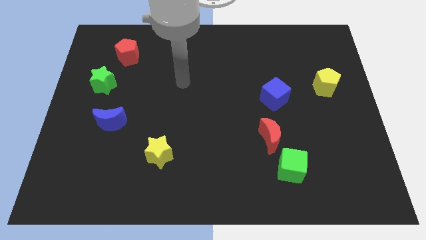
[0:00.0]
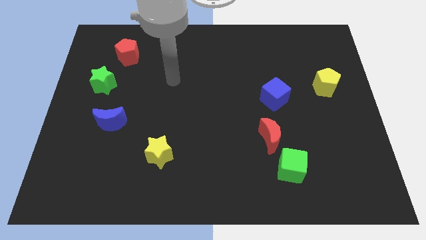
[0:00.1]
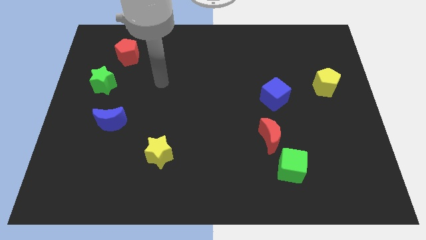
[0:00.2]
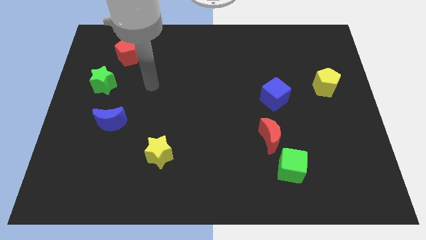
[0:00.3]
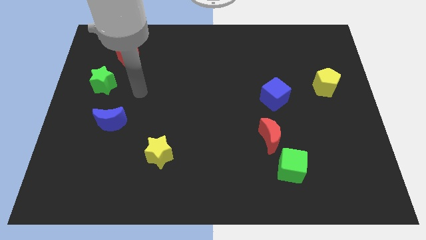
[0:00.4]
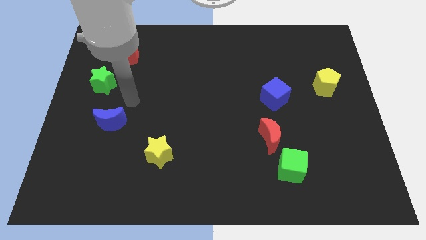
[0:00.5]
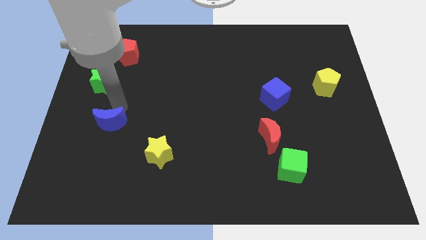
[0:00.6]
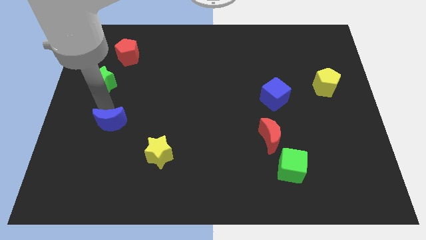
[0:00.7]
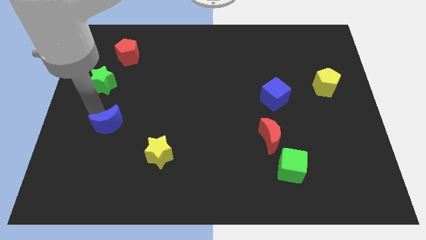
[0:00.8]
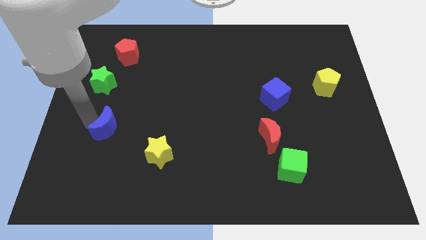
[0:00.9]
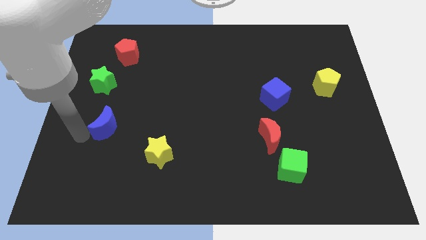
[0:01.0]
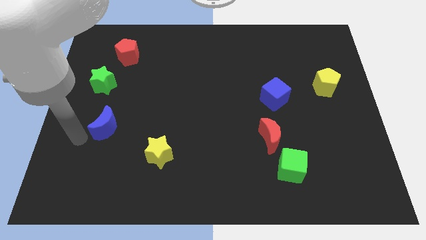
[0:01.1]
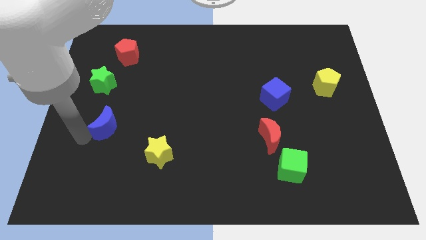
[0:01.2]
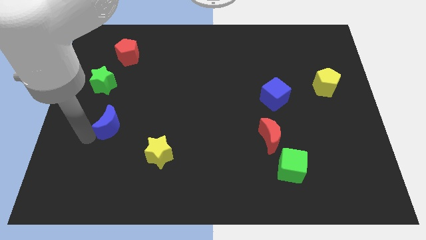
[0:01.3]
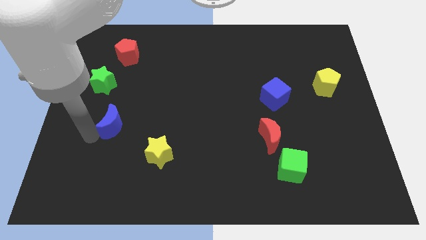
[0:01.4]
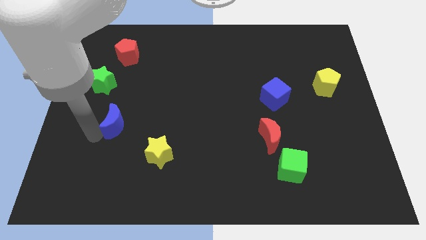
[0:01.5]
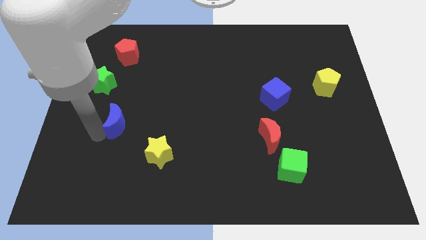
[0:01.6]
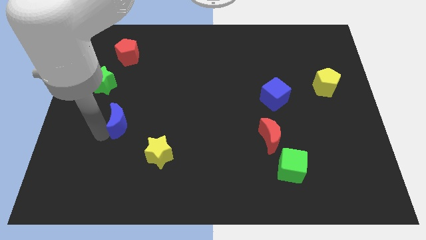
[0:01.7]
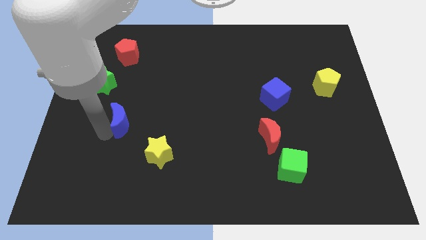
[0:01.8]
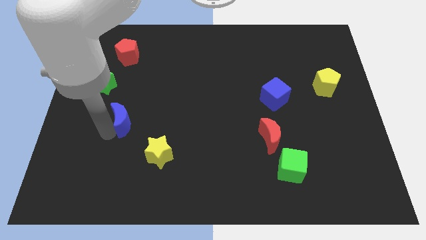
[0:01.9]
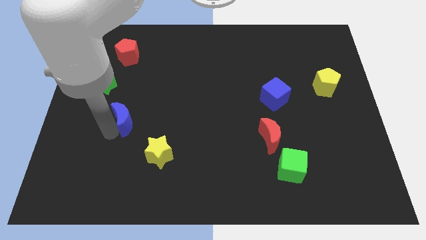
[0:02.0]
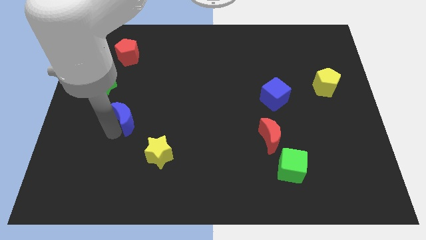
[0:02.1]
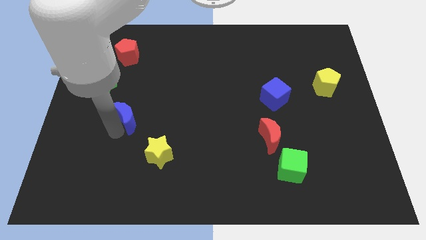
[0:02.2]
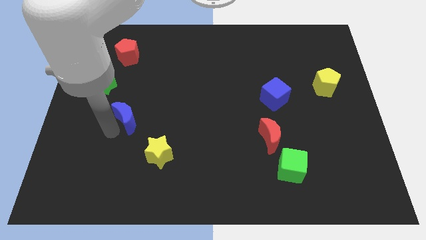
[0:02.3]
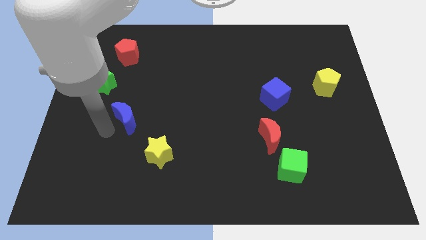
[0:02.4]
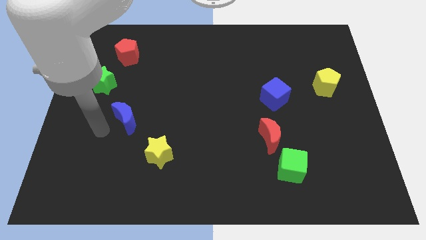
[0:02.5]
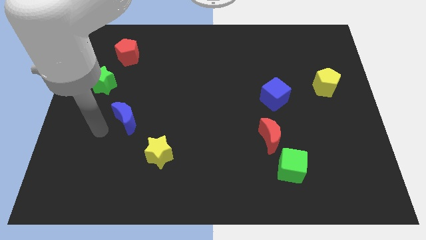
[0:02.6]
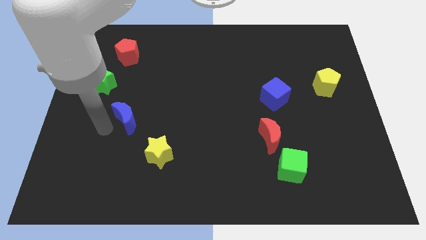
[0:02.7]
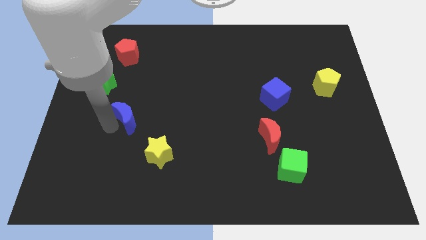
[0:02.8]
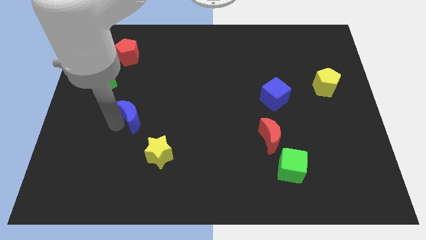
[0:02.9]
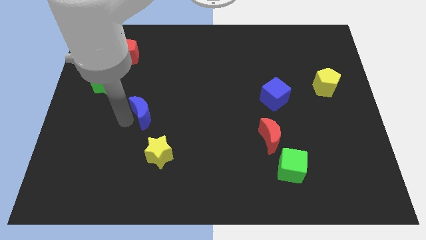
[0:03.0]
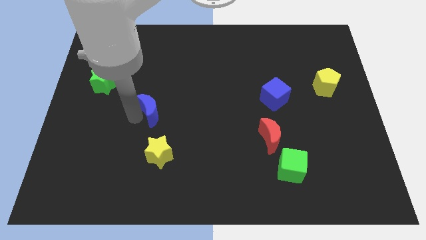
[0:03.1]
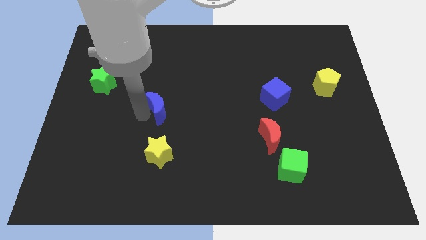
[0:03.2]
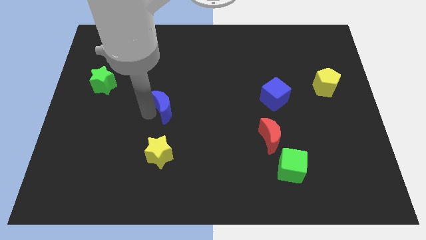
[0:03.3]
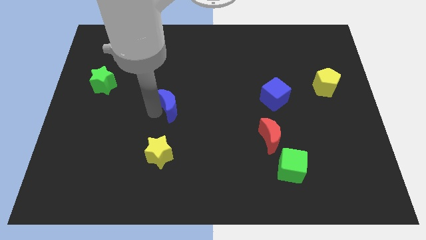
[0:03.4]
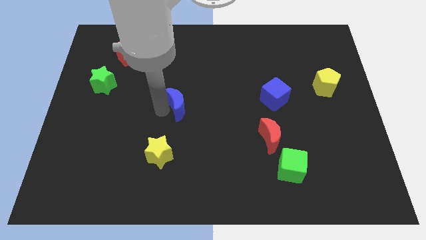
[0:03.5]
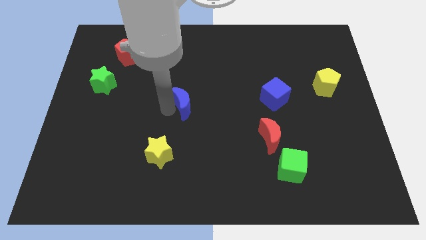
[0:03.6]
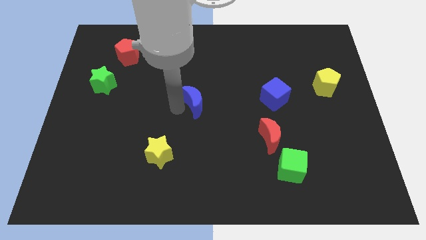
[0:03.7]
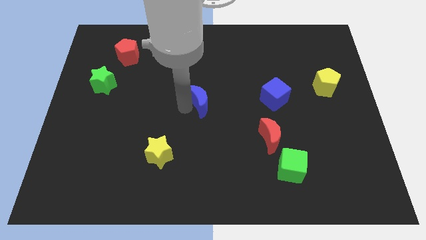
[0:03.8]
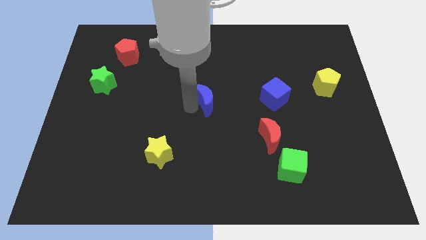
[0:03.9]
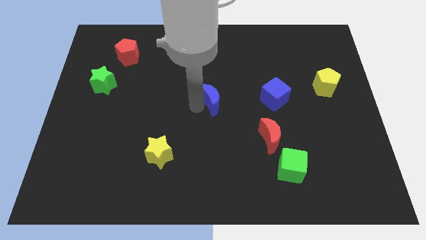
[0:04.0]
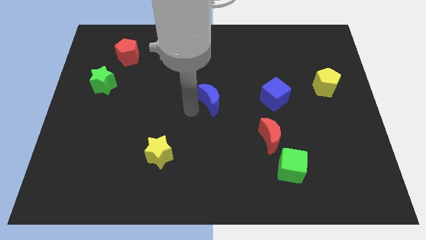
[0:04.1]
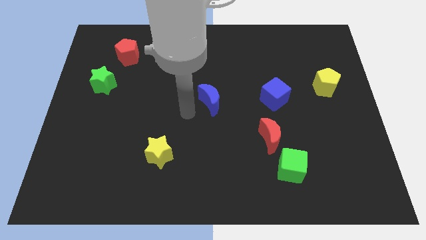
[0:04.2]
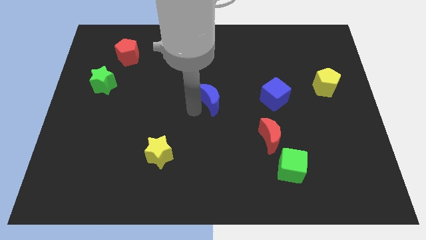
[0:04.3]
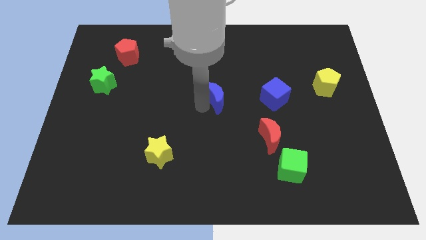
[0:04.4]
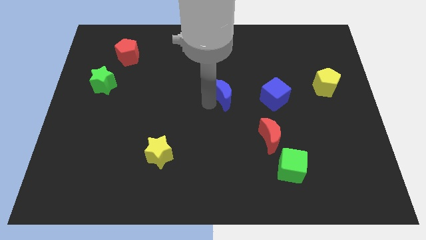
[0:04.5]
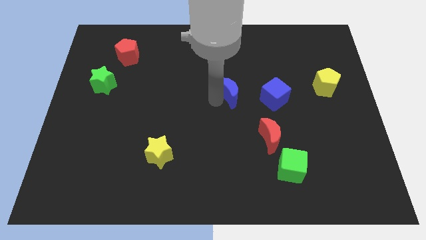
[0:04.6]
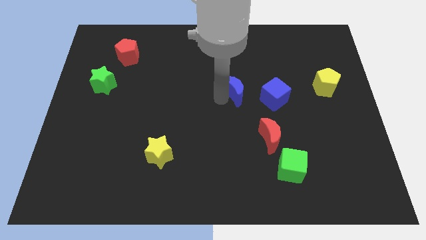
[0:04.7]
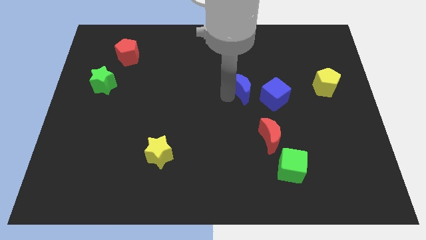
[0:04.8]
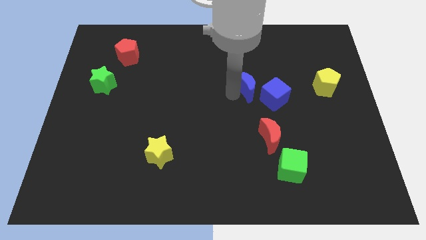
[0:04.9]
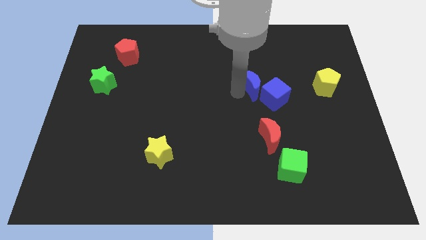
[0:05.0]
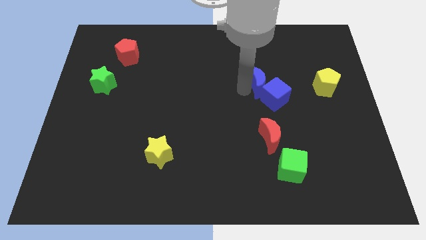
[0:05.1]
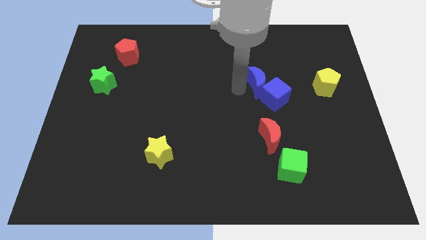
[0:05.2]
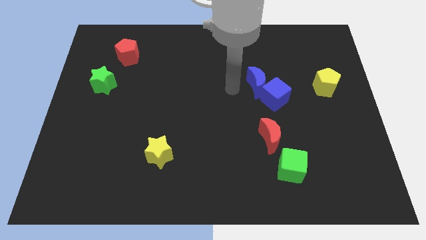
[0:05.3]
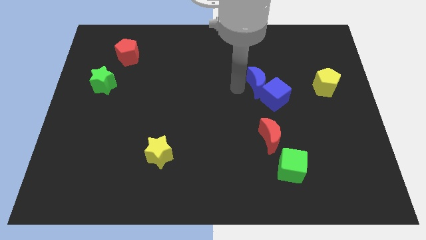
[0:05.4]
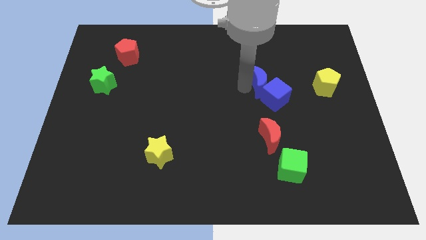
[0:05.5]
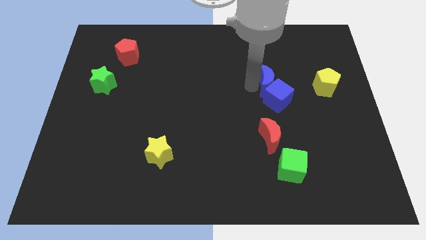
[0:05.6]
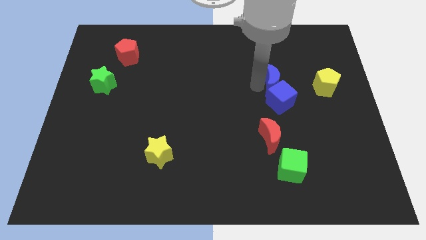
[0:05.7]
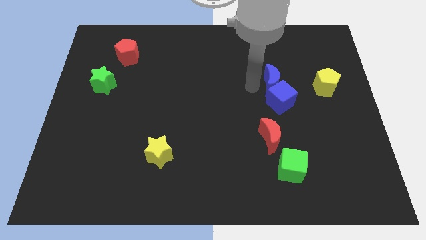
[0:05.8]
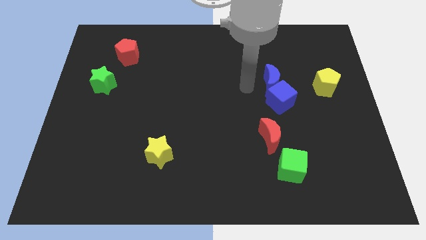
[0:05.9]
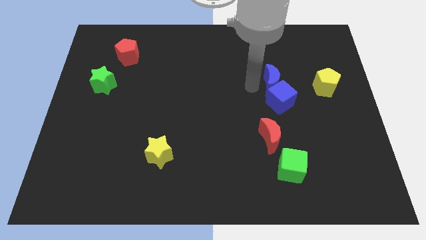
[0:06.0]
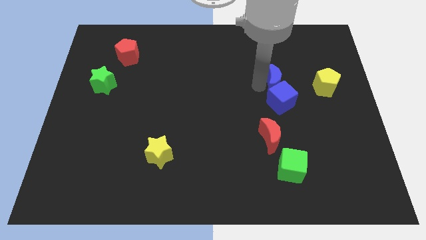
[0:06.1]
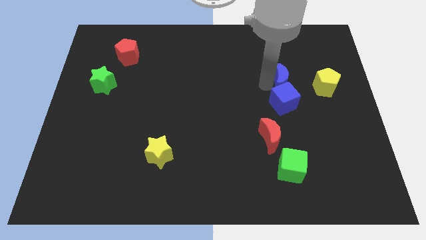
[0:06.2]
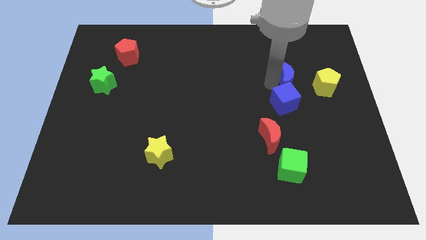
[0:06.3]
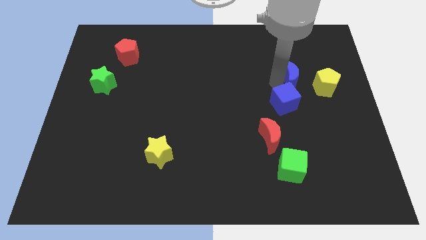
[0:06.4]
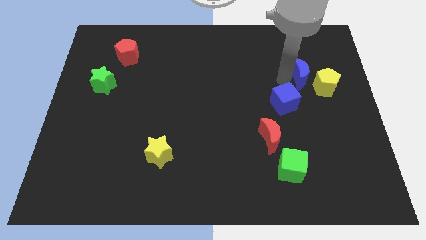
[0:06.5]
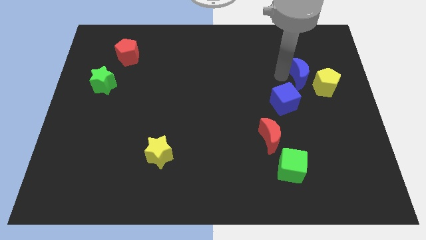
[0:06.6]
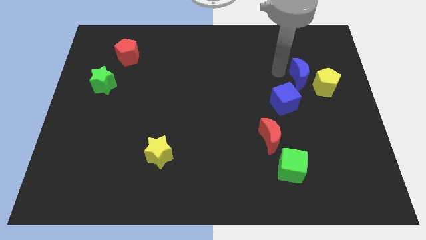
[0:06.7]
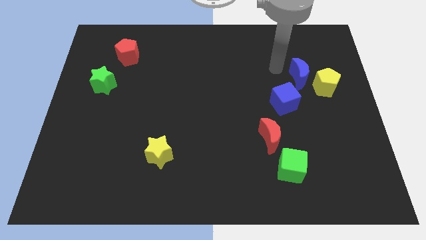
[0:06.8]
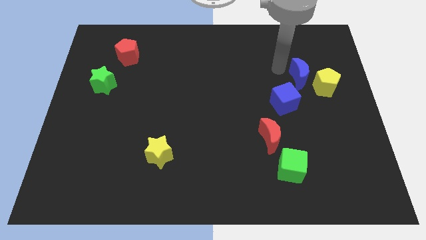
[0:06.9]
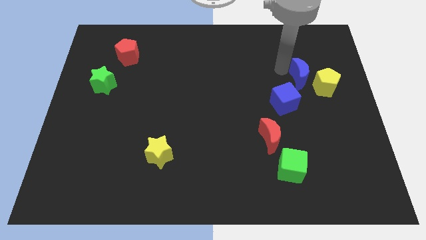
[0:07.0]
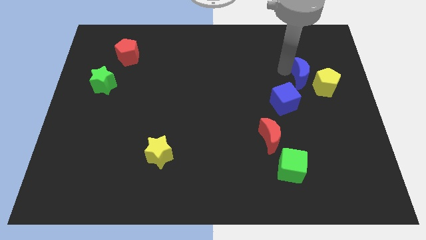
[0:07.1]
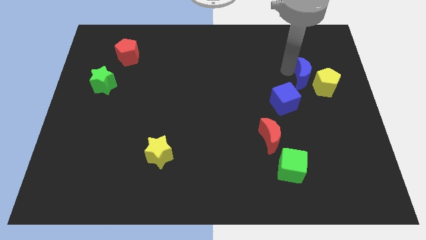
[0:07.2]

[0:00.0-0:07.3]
slide the blue moon next to the yellow pentagon

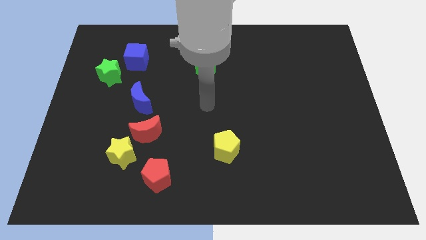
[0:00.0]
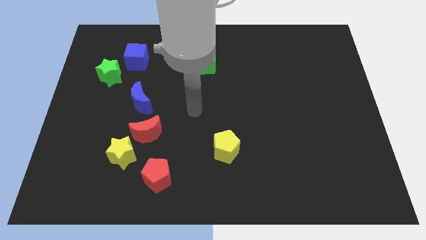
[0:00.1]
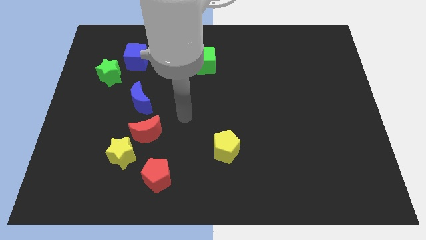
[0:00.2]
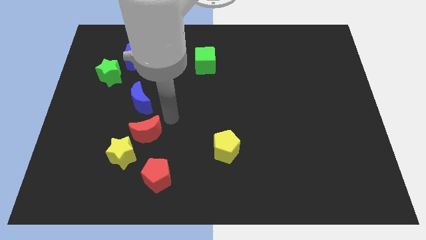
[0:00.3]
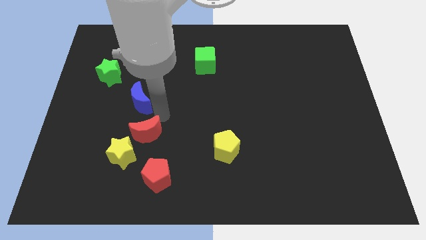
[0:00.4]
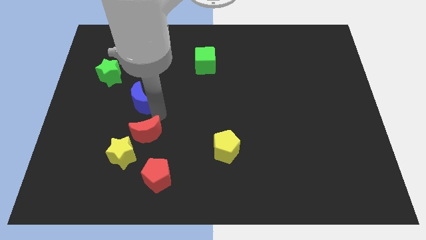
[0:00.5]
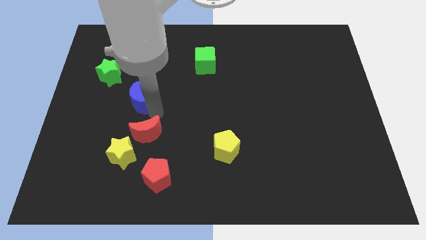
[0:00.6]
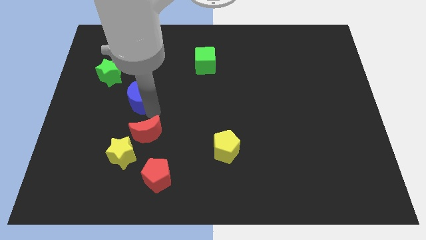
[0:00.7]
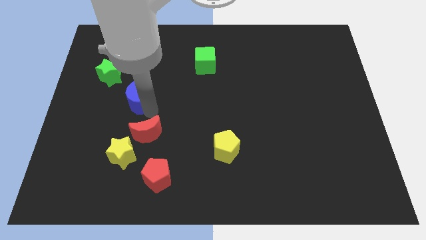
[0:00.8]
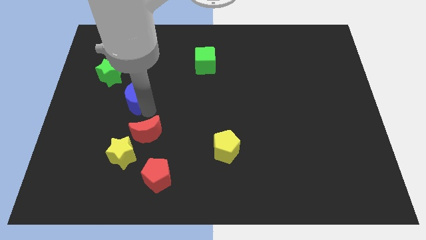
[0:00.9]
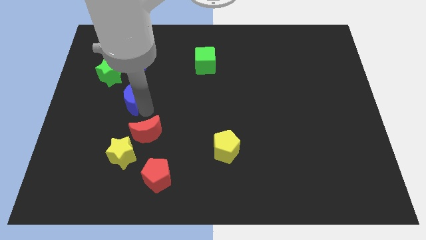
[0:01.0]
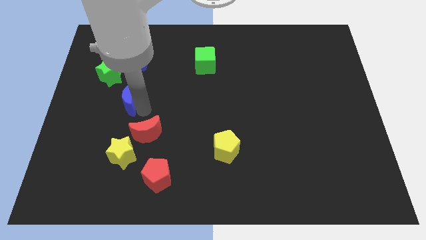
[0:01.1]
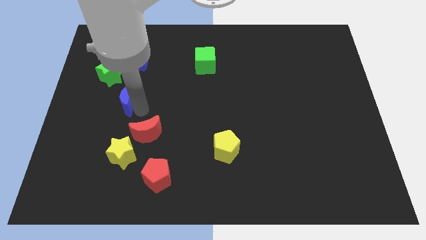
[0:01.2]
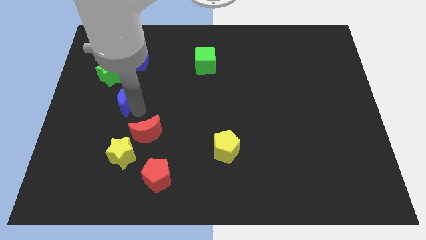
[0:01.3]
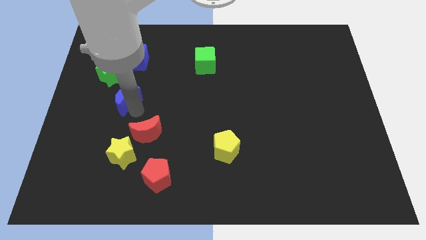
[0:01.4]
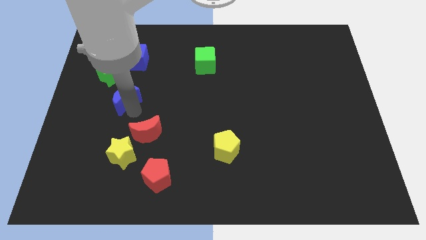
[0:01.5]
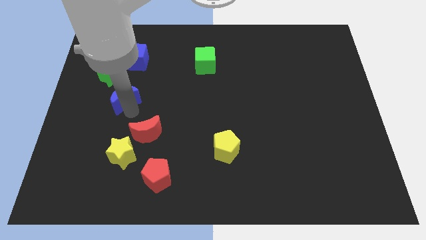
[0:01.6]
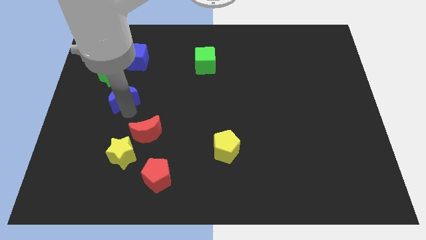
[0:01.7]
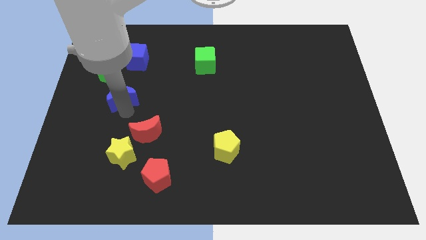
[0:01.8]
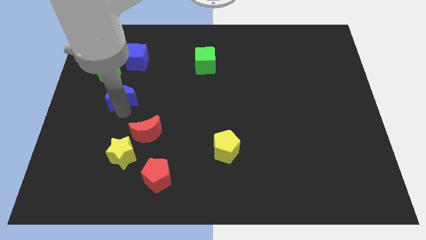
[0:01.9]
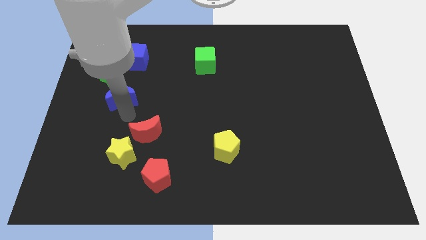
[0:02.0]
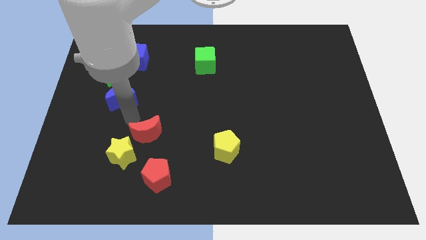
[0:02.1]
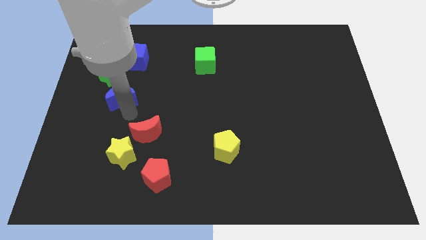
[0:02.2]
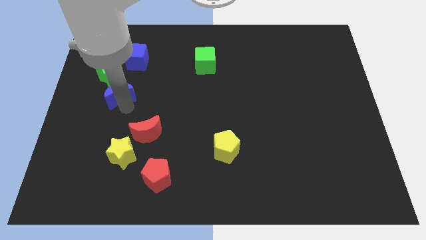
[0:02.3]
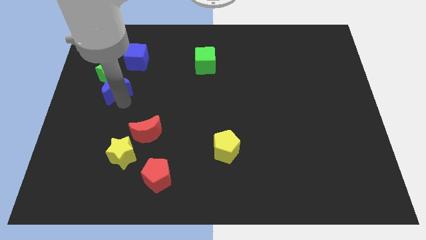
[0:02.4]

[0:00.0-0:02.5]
put the blue moon towards the green star
